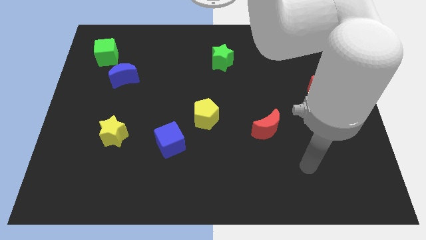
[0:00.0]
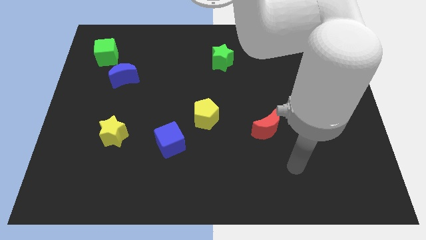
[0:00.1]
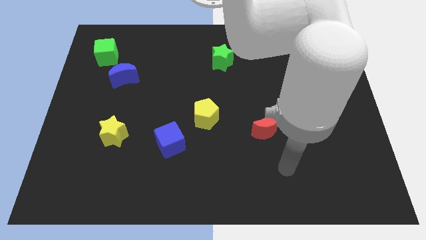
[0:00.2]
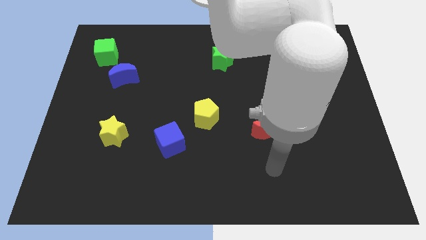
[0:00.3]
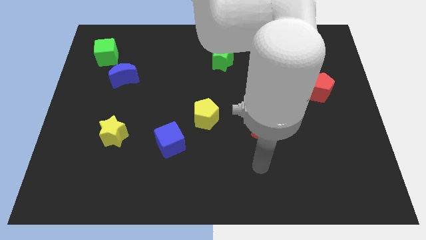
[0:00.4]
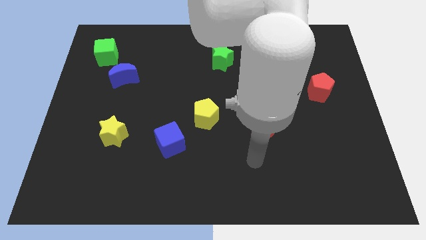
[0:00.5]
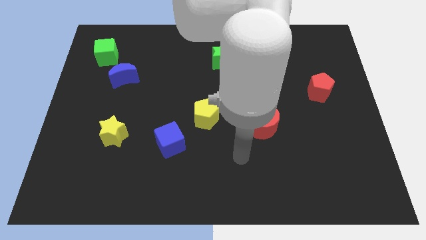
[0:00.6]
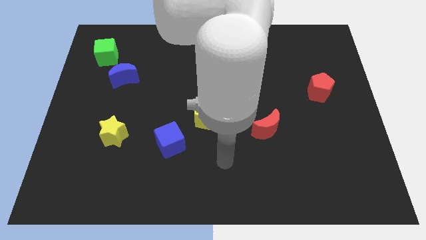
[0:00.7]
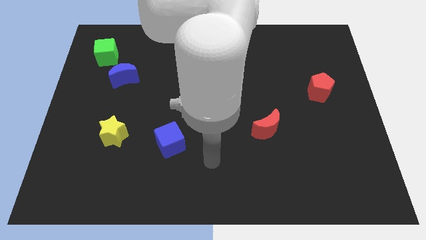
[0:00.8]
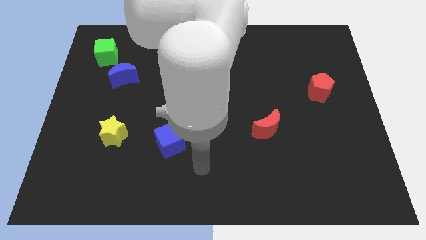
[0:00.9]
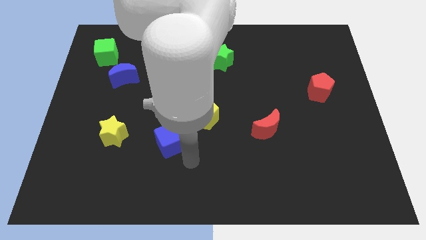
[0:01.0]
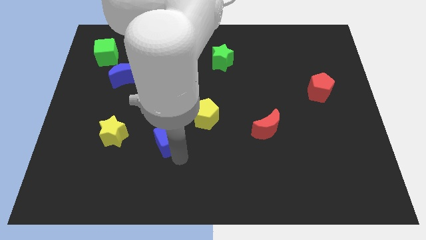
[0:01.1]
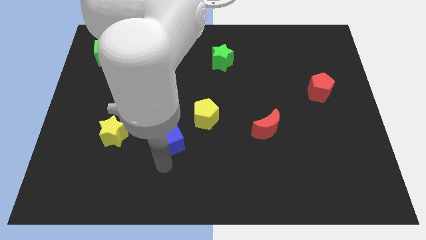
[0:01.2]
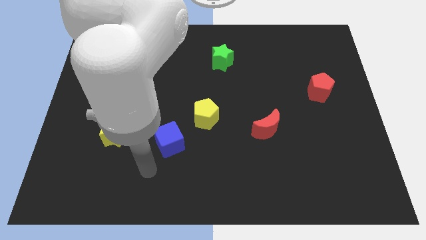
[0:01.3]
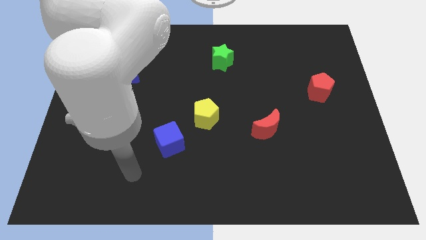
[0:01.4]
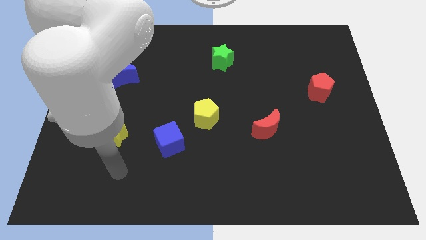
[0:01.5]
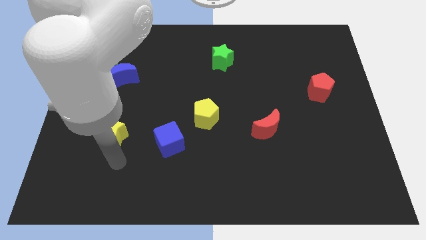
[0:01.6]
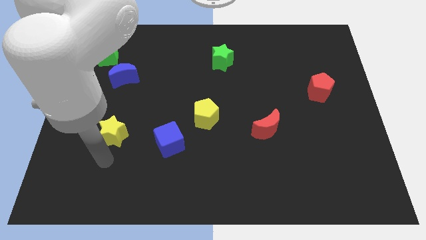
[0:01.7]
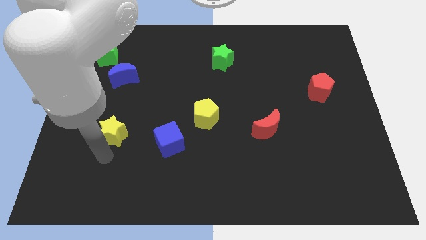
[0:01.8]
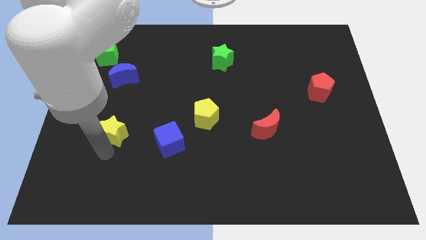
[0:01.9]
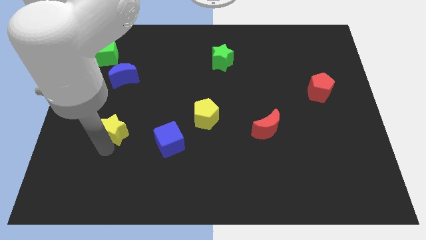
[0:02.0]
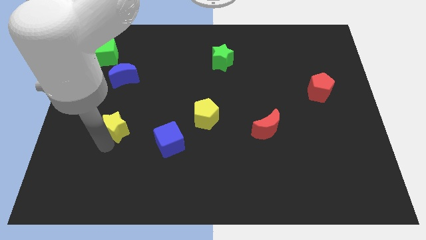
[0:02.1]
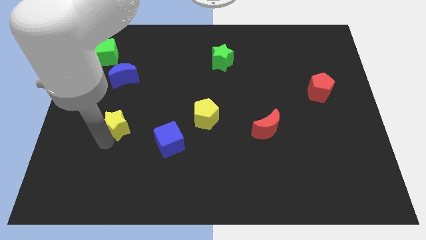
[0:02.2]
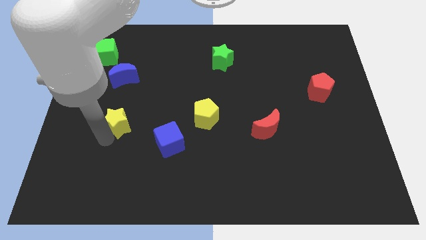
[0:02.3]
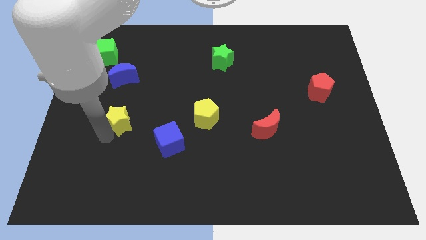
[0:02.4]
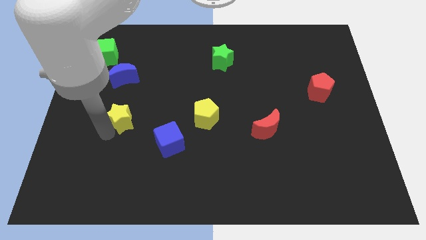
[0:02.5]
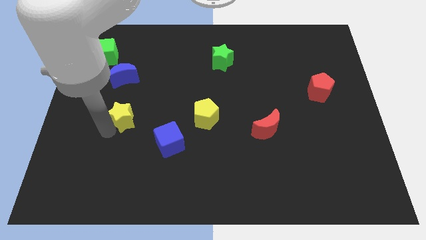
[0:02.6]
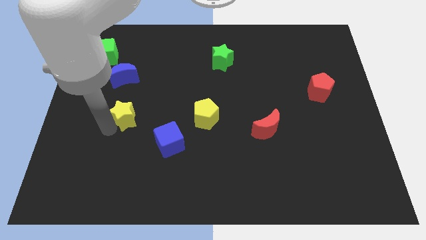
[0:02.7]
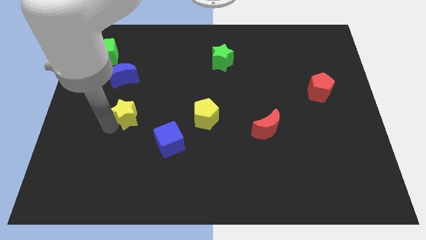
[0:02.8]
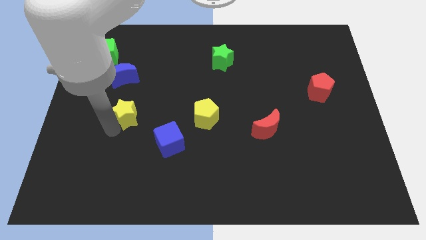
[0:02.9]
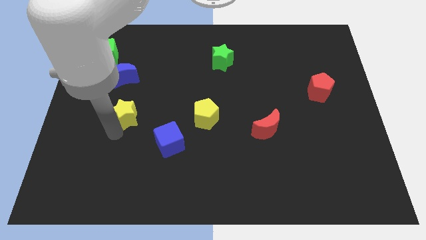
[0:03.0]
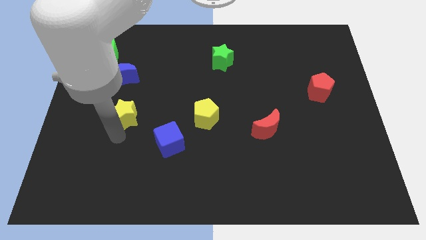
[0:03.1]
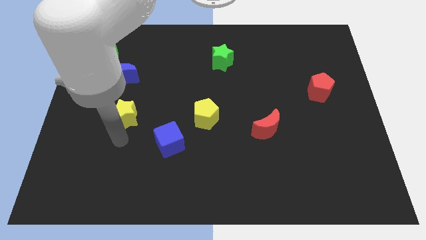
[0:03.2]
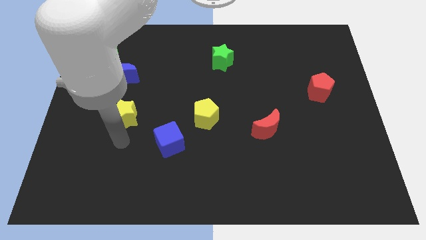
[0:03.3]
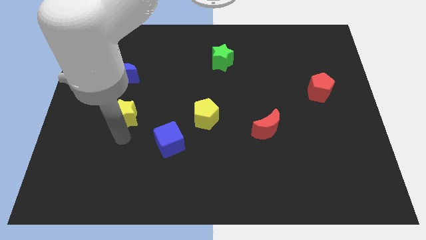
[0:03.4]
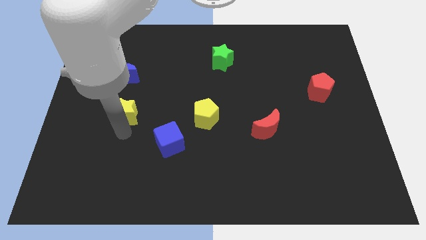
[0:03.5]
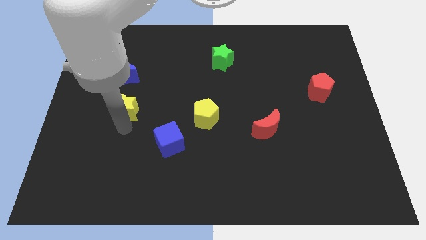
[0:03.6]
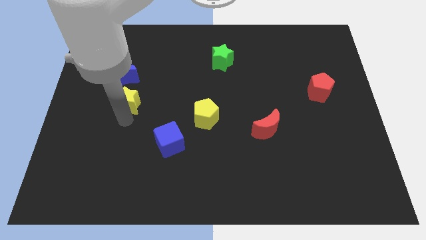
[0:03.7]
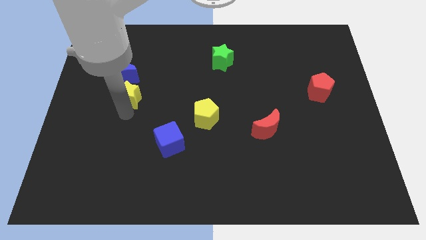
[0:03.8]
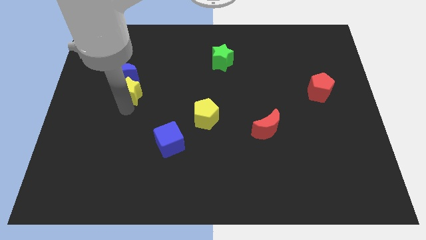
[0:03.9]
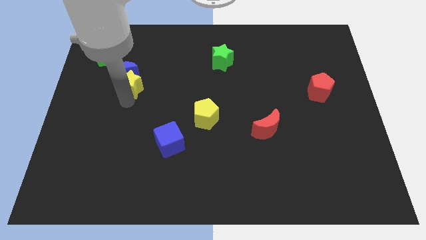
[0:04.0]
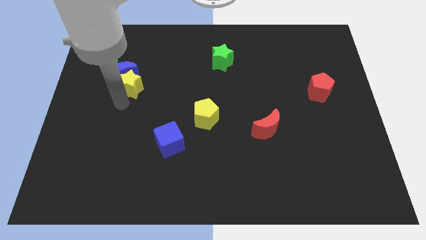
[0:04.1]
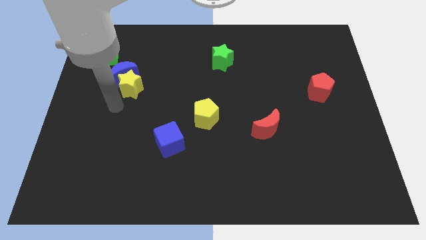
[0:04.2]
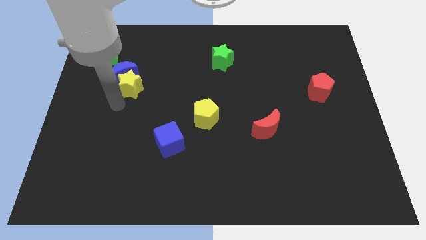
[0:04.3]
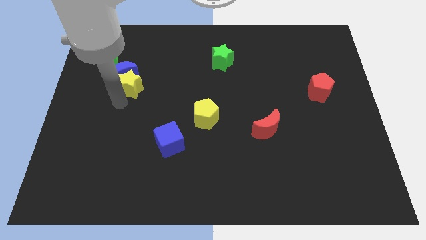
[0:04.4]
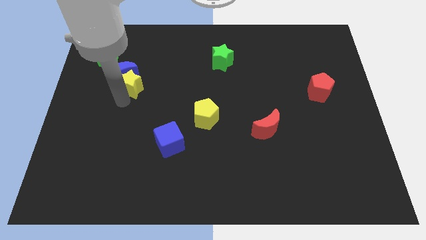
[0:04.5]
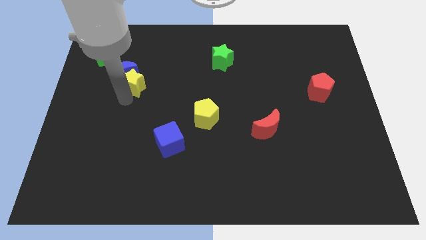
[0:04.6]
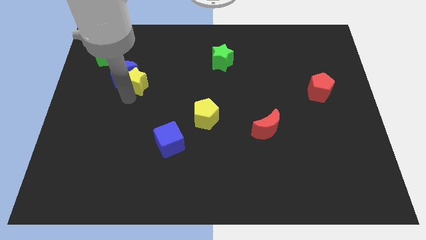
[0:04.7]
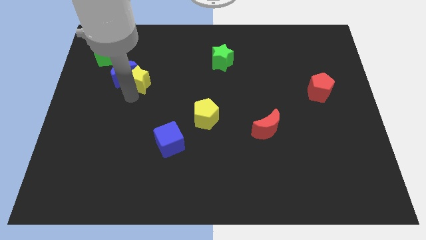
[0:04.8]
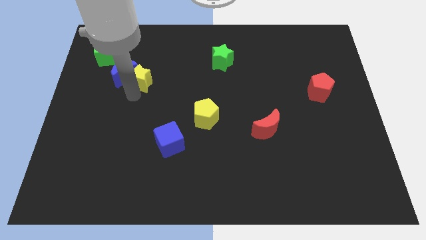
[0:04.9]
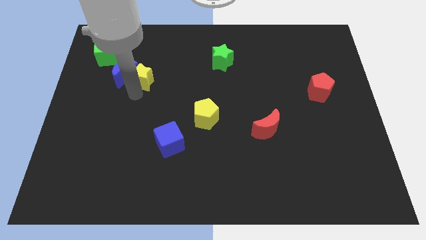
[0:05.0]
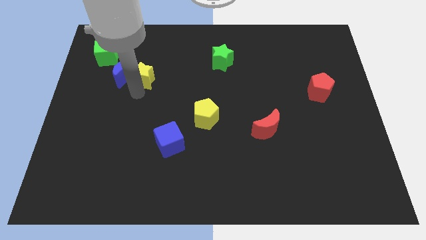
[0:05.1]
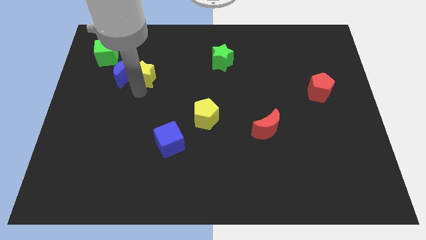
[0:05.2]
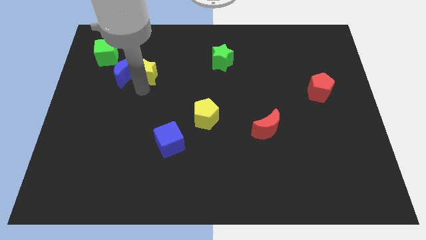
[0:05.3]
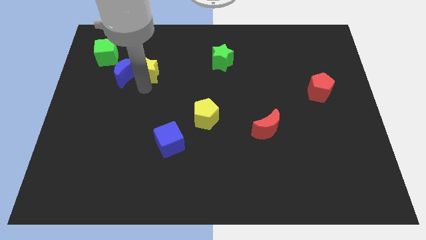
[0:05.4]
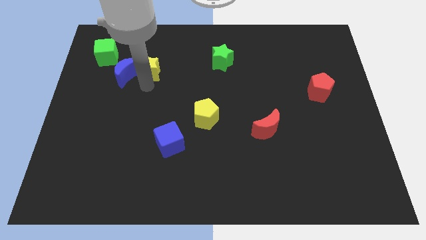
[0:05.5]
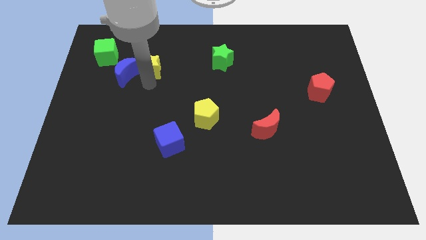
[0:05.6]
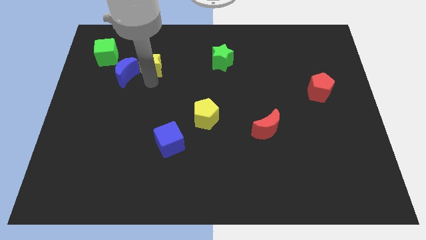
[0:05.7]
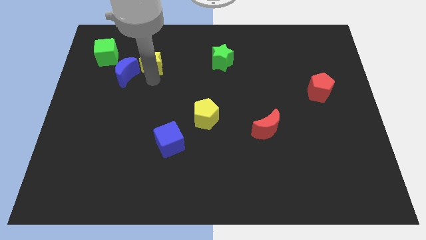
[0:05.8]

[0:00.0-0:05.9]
put the yellow star just right of the green cube
